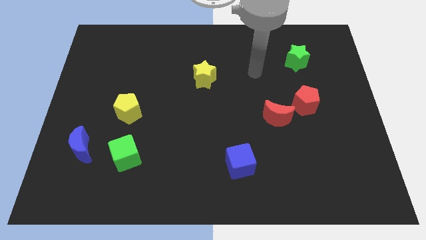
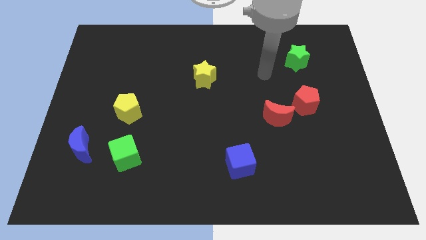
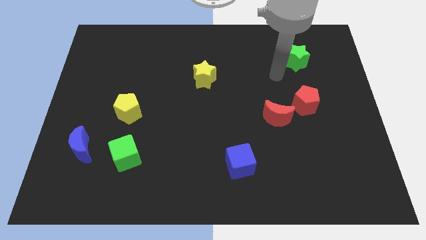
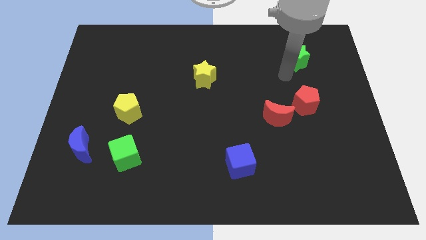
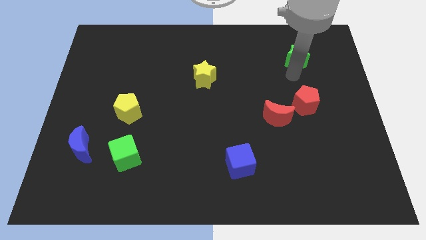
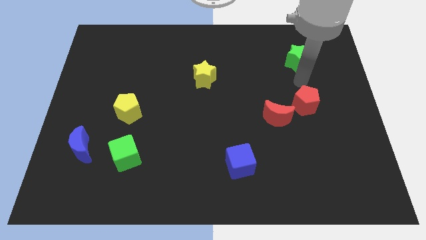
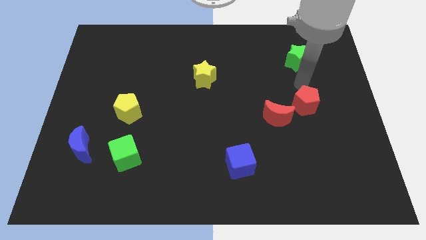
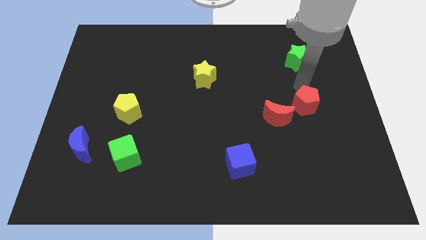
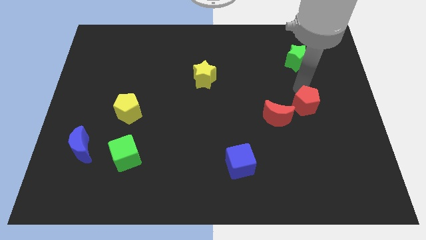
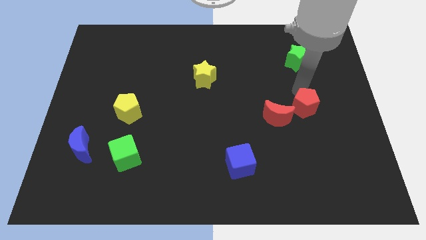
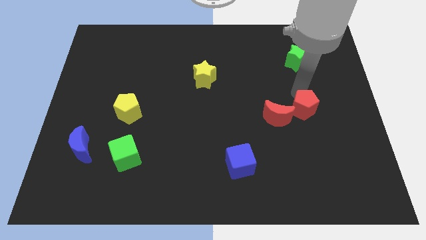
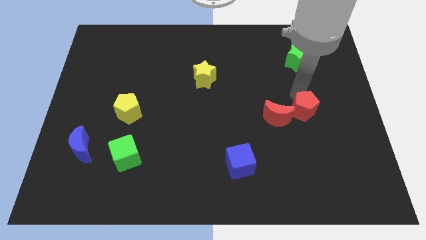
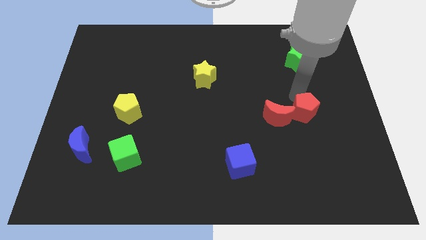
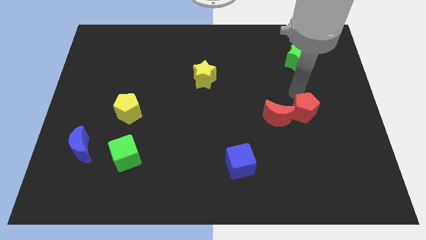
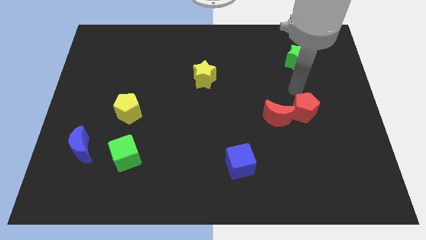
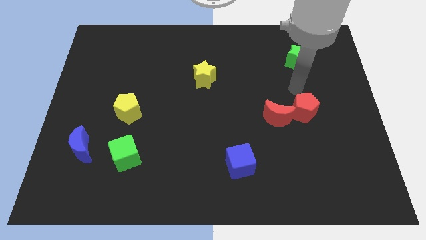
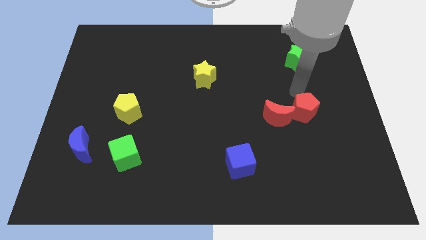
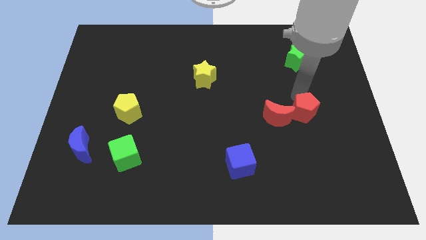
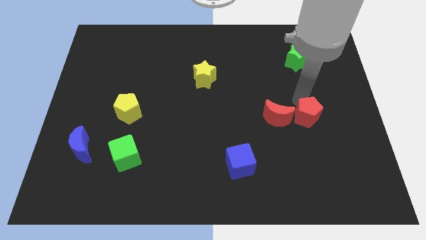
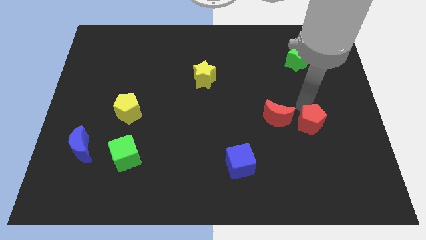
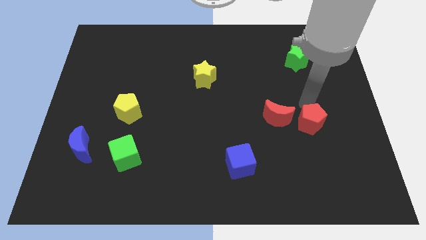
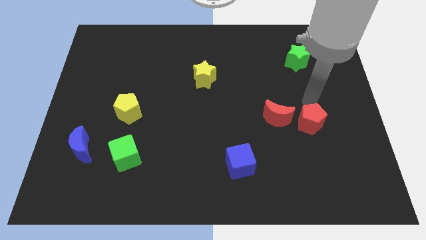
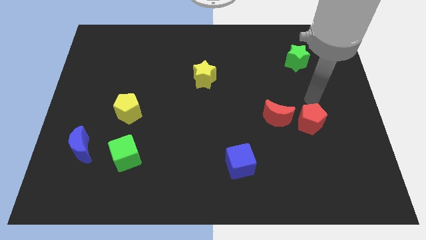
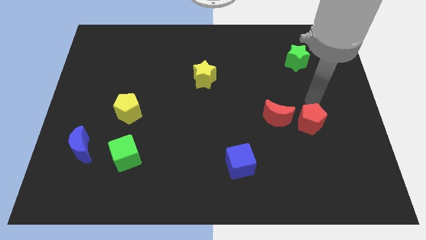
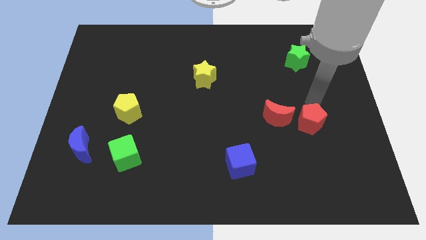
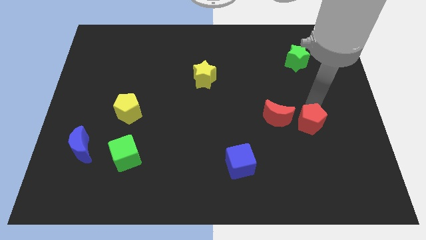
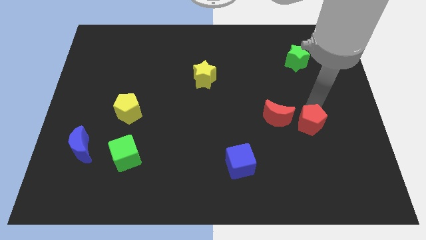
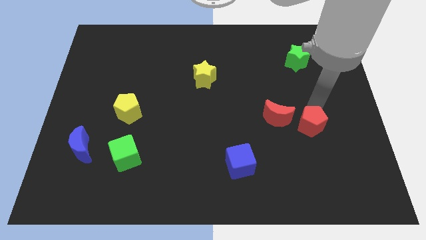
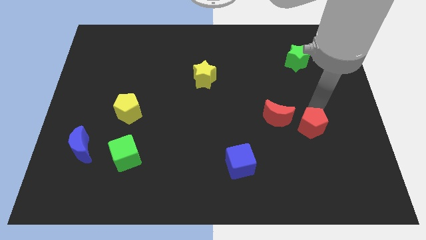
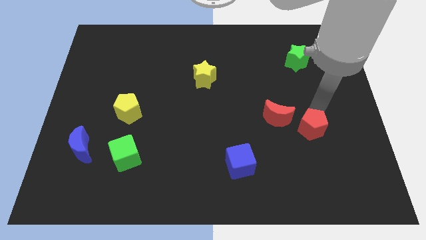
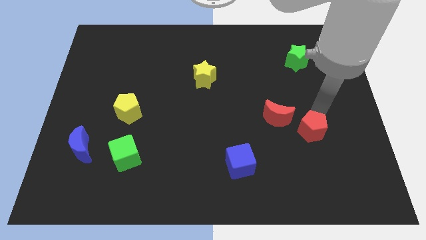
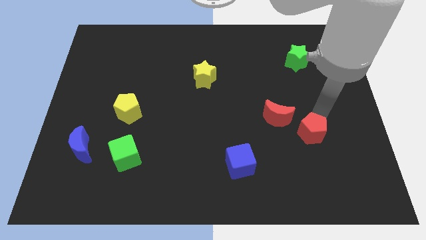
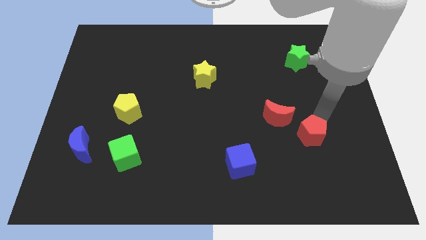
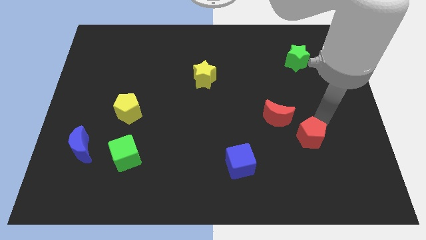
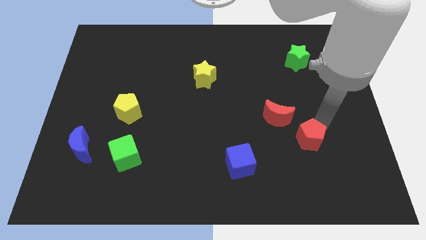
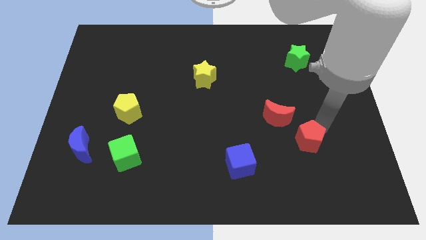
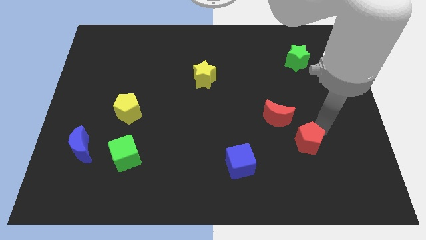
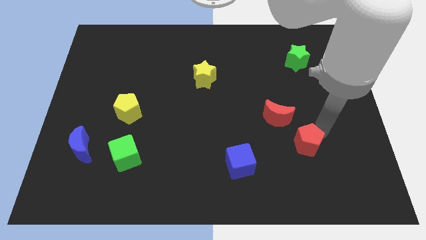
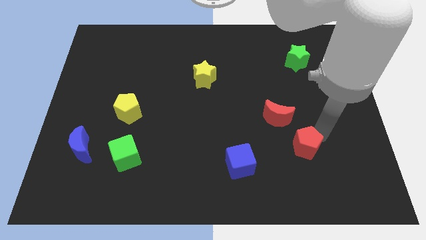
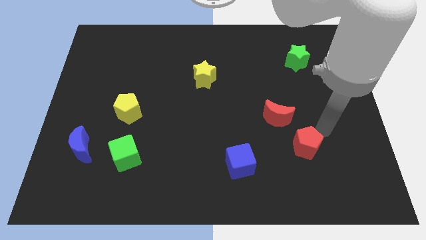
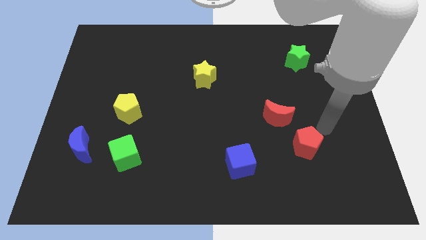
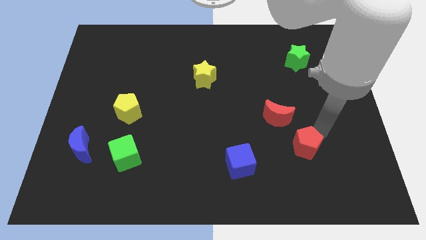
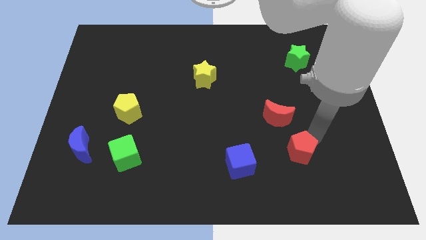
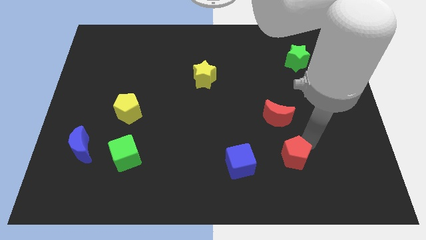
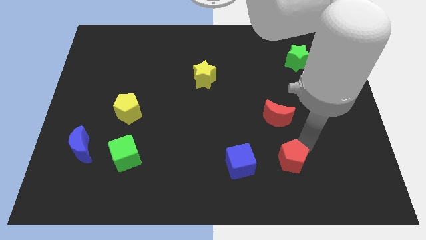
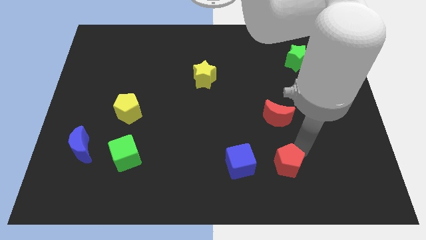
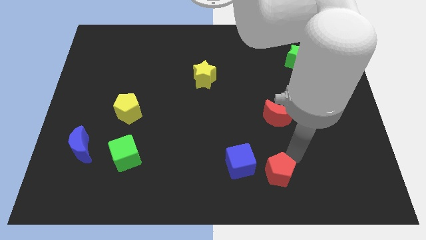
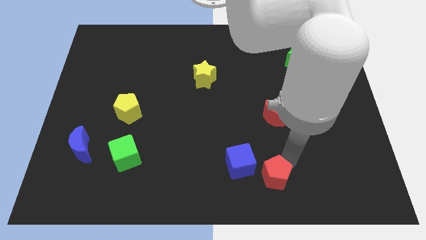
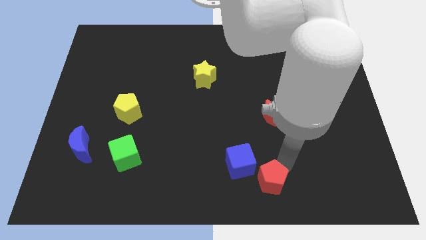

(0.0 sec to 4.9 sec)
put the red pentagon to the bottom side

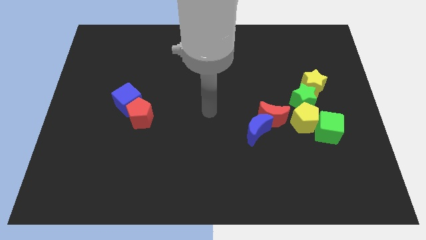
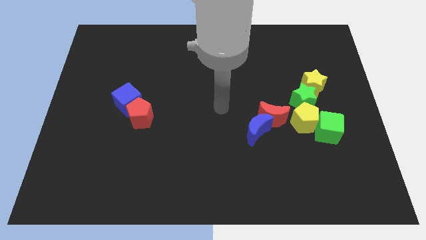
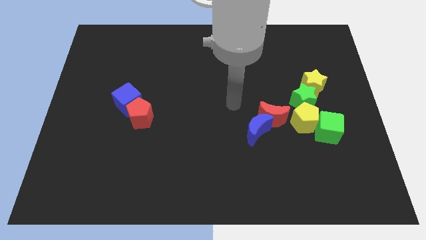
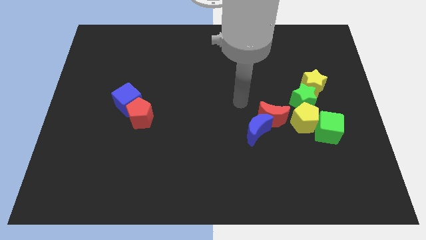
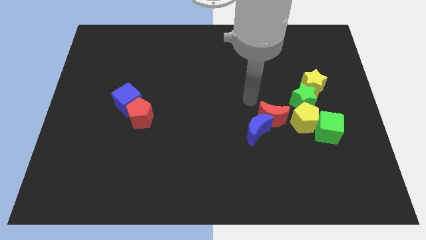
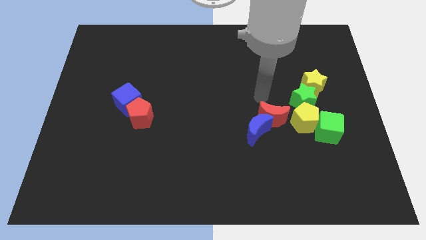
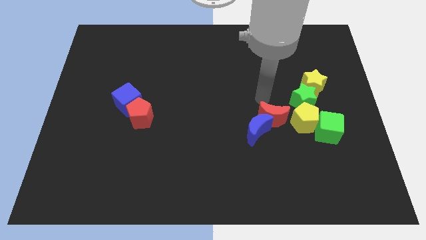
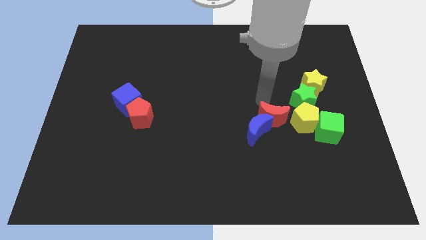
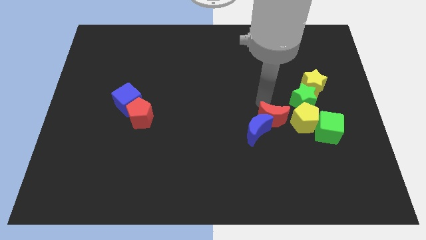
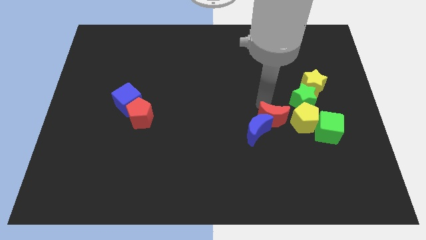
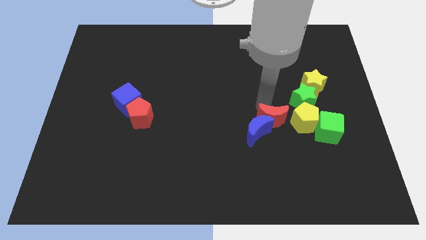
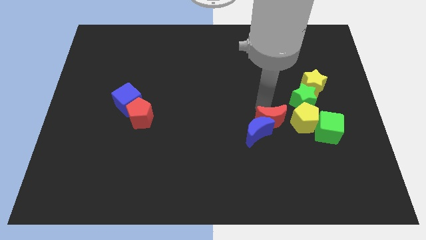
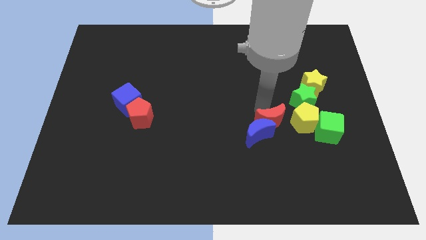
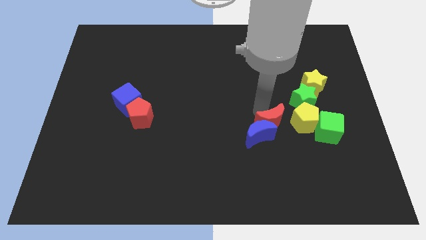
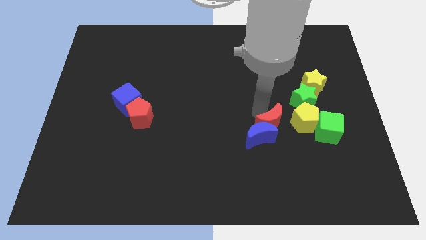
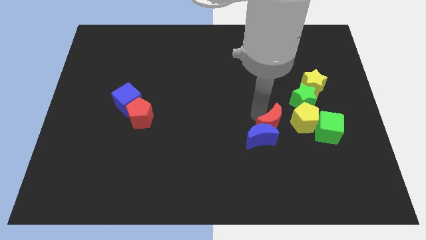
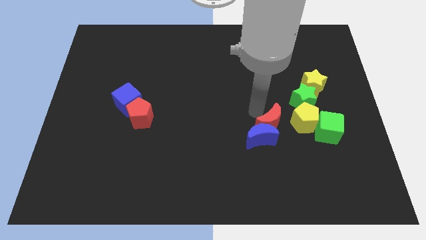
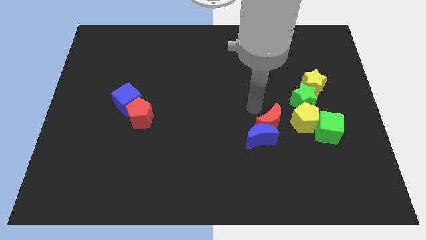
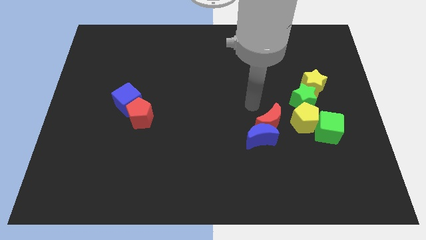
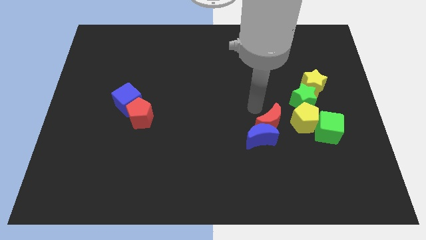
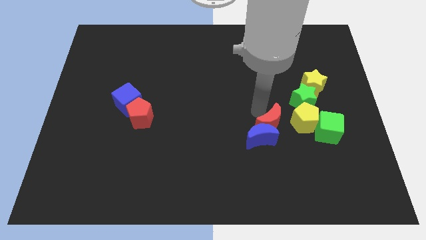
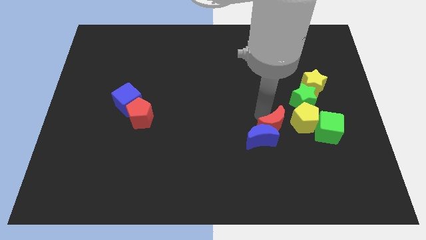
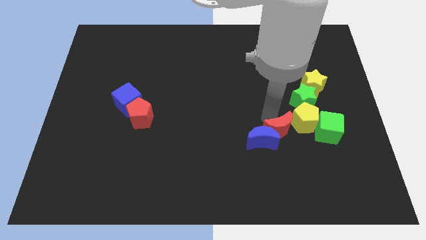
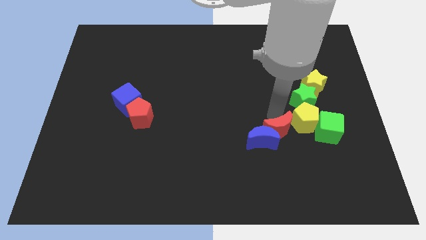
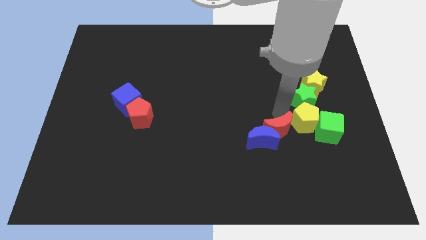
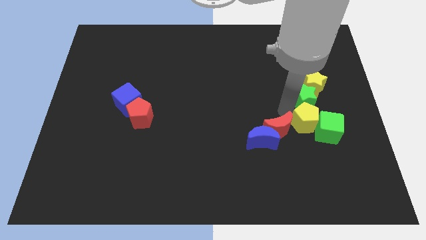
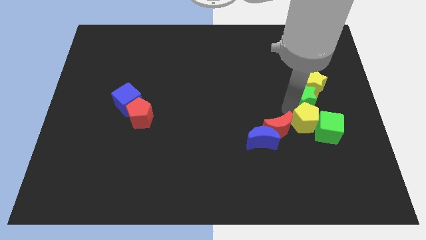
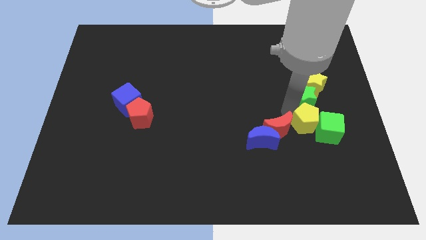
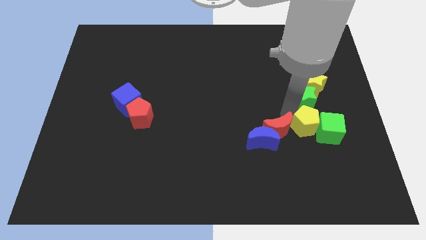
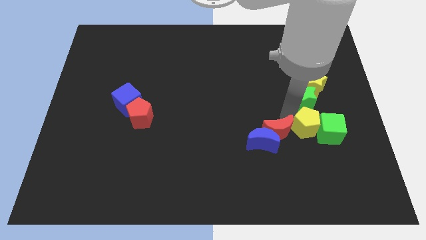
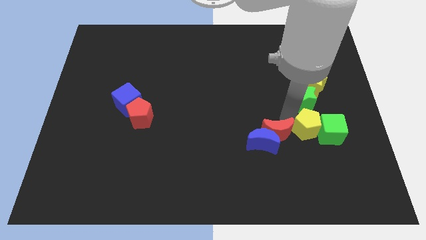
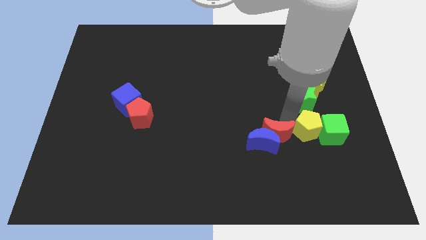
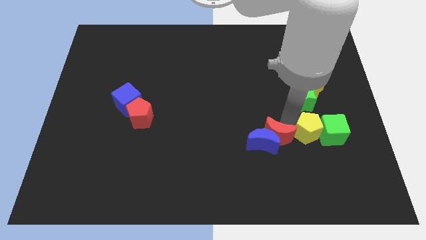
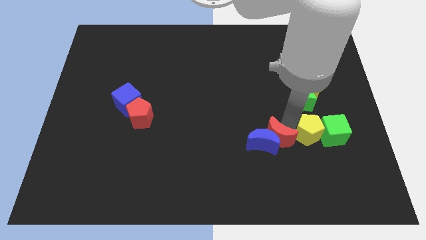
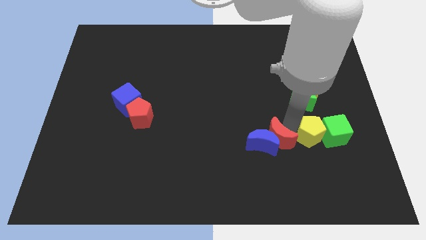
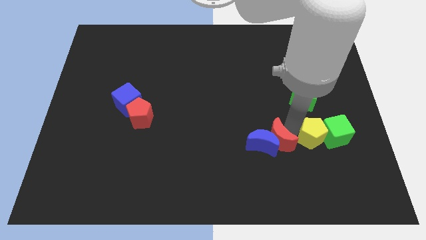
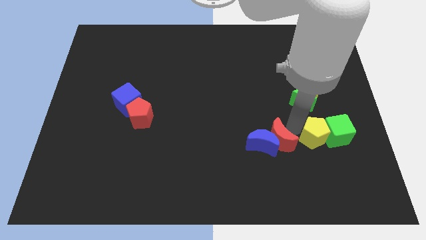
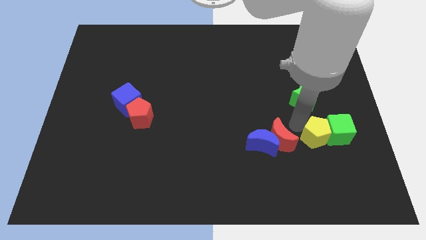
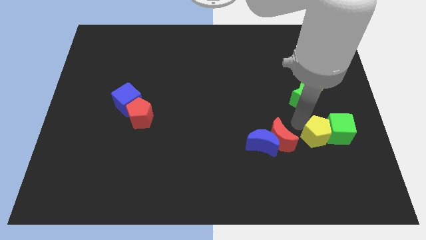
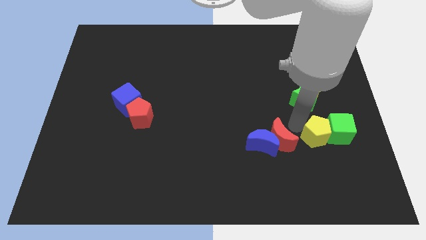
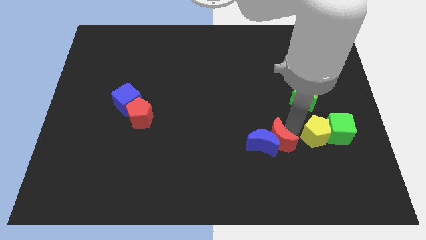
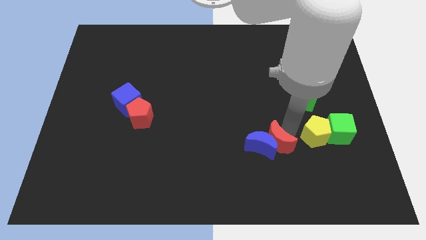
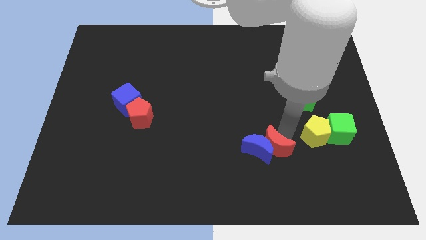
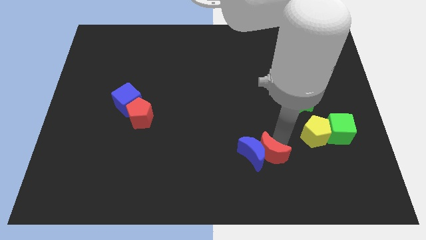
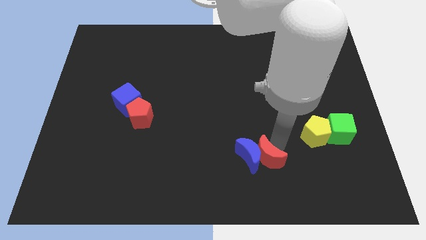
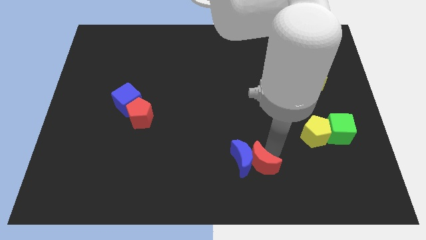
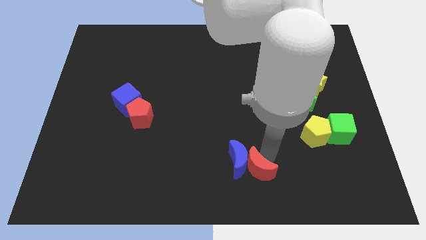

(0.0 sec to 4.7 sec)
push the red moon to the bottom side
